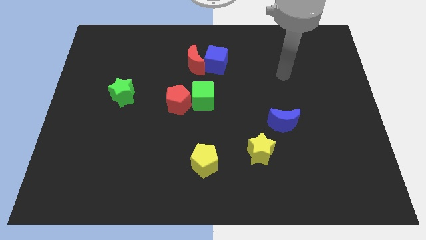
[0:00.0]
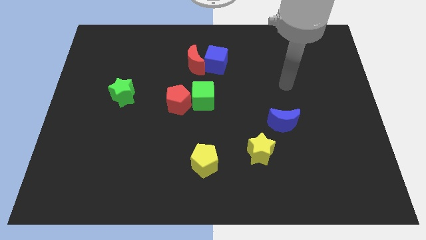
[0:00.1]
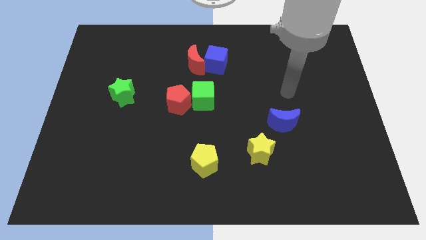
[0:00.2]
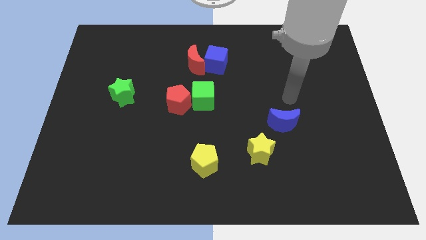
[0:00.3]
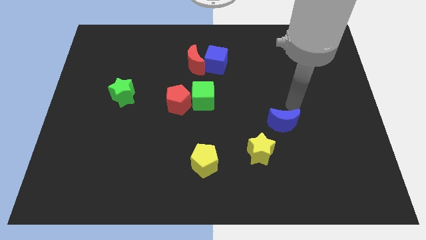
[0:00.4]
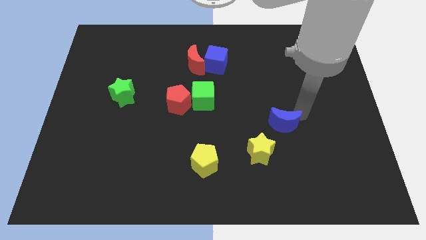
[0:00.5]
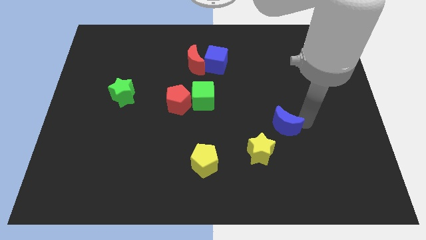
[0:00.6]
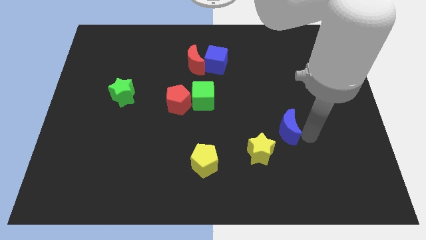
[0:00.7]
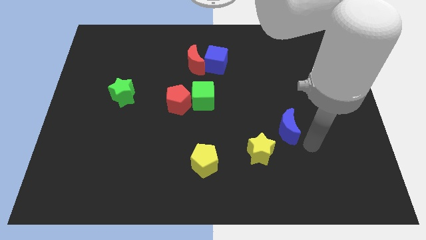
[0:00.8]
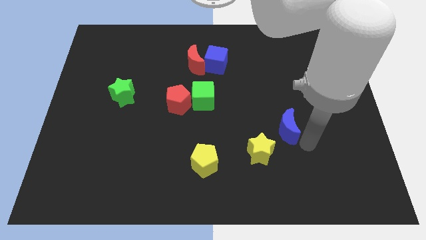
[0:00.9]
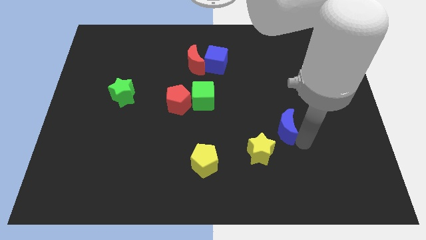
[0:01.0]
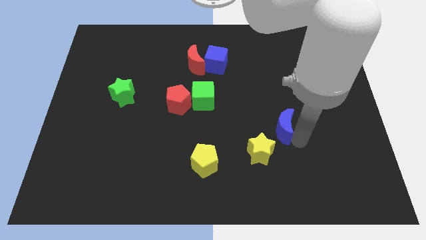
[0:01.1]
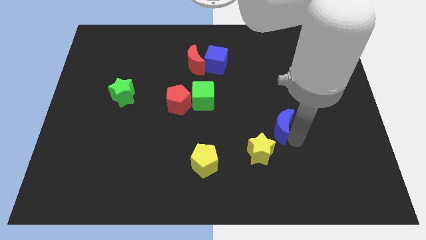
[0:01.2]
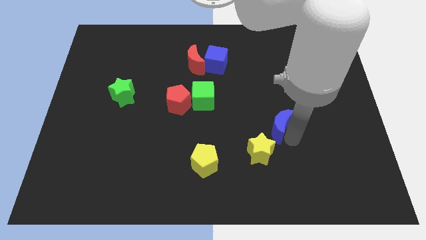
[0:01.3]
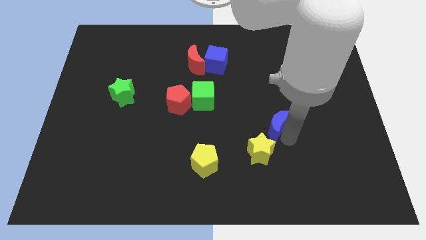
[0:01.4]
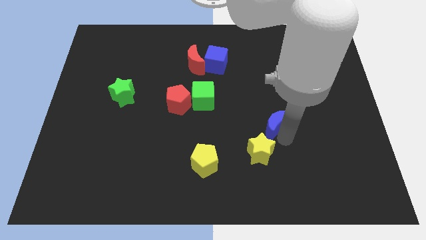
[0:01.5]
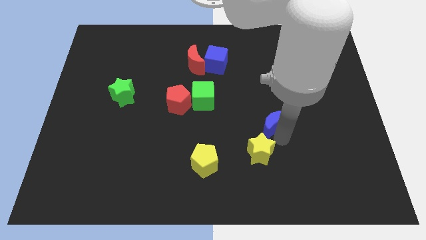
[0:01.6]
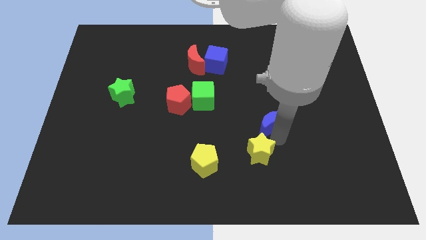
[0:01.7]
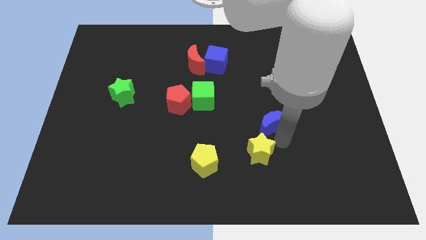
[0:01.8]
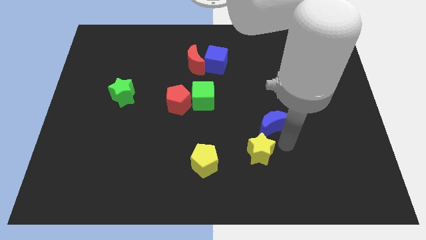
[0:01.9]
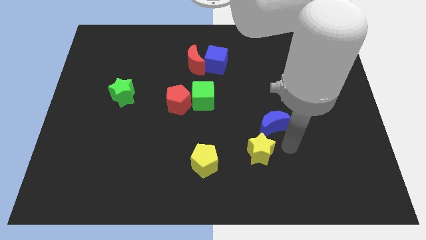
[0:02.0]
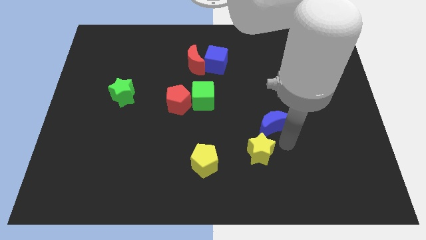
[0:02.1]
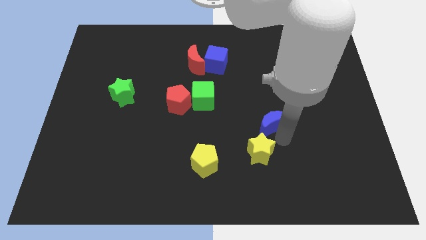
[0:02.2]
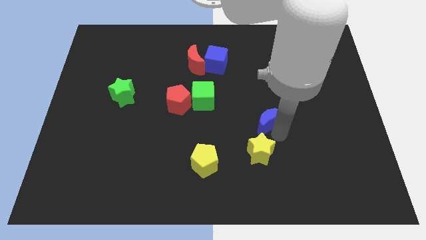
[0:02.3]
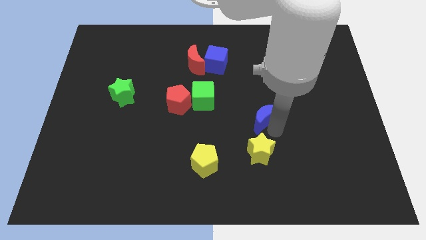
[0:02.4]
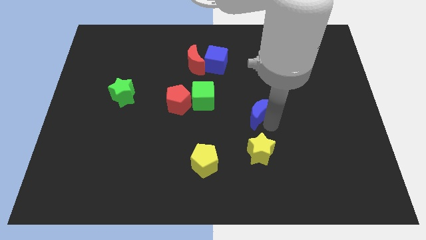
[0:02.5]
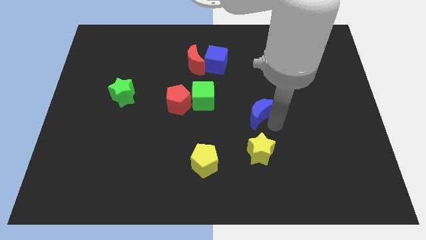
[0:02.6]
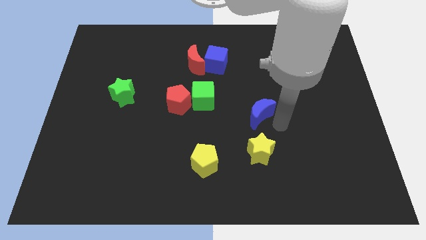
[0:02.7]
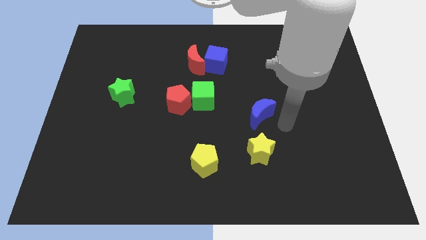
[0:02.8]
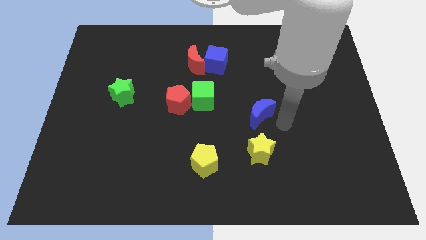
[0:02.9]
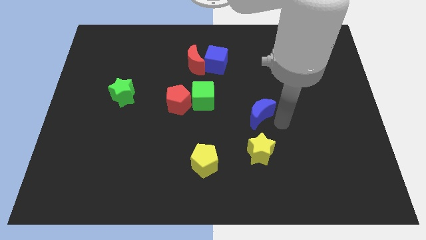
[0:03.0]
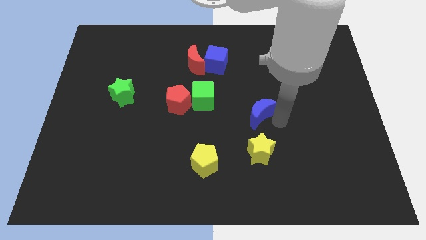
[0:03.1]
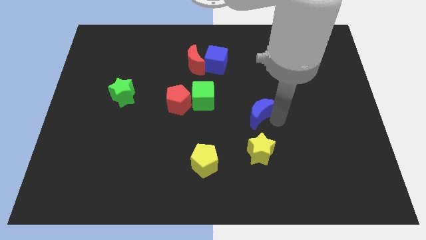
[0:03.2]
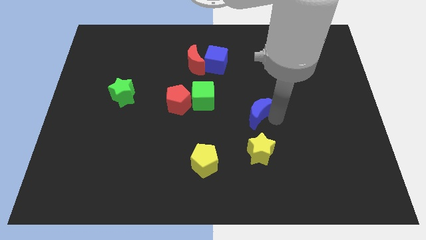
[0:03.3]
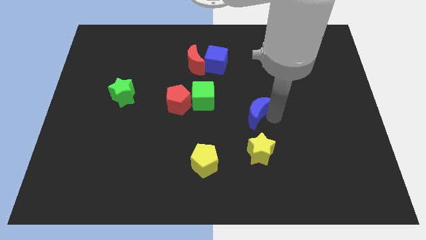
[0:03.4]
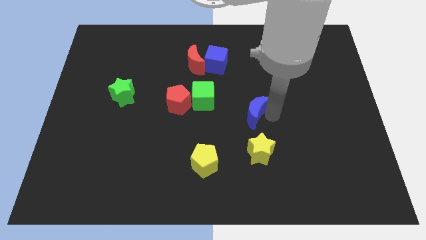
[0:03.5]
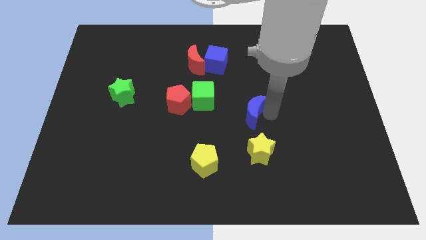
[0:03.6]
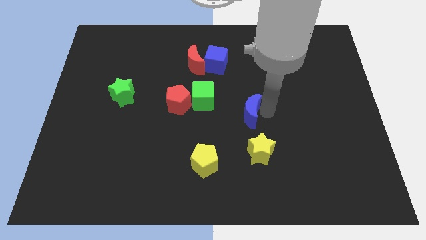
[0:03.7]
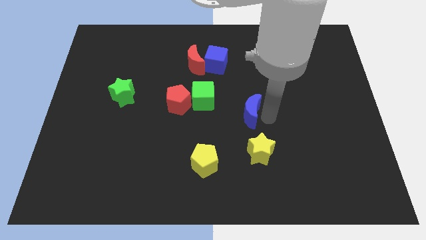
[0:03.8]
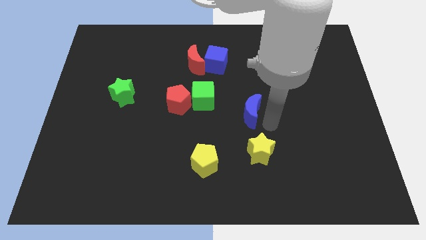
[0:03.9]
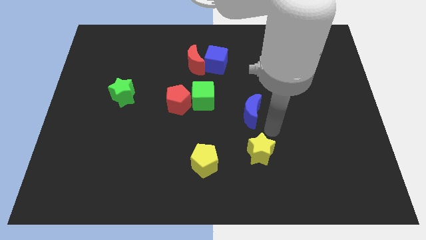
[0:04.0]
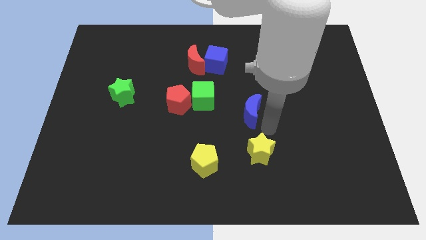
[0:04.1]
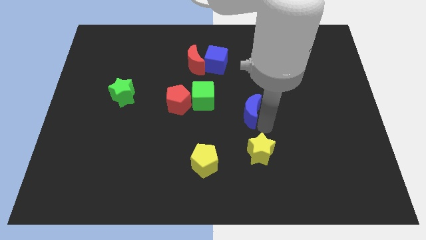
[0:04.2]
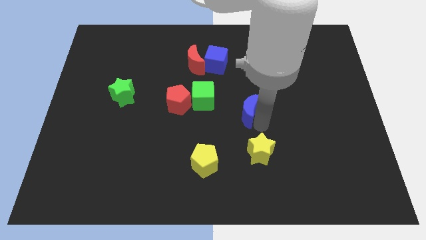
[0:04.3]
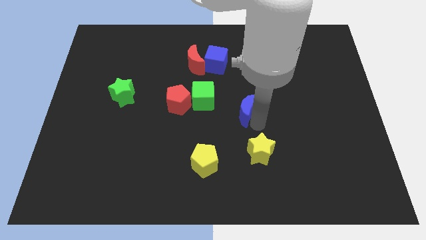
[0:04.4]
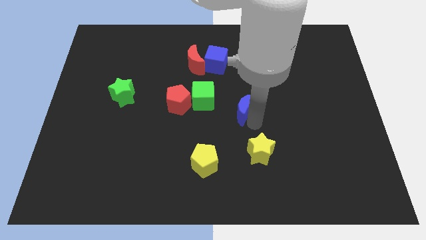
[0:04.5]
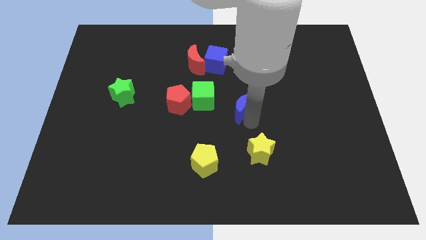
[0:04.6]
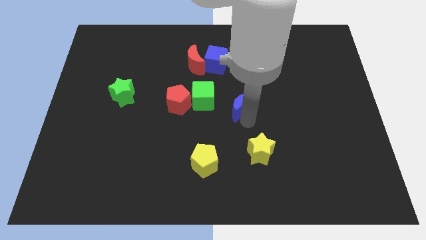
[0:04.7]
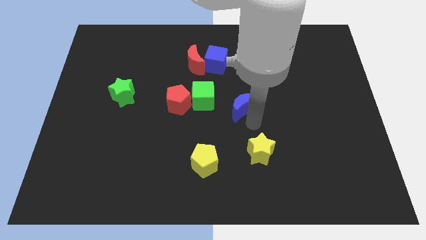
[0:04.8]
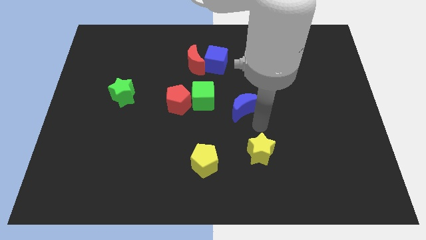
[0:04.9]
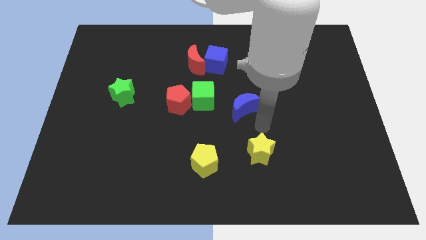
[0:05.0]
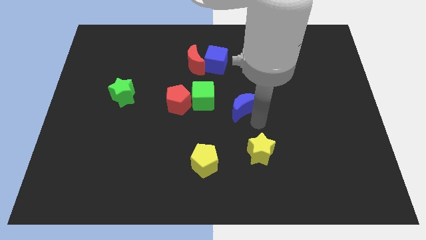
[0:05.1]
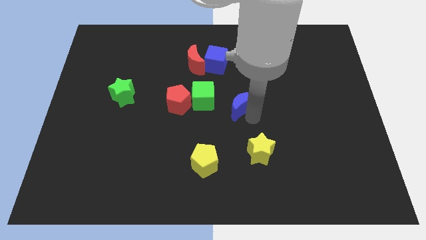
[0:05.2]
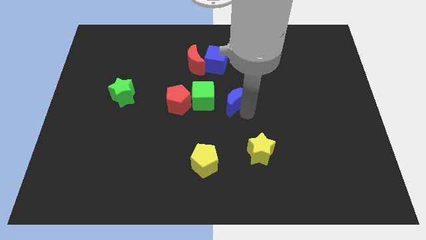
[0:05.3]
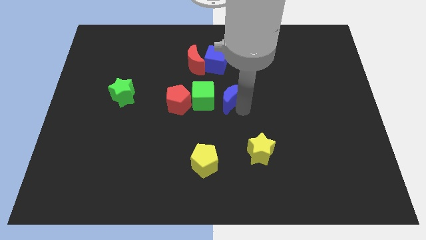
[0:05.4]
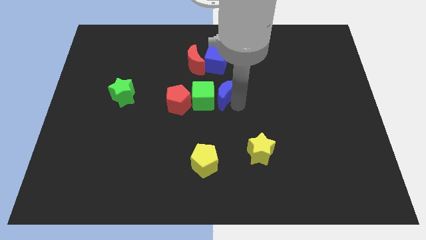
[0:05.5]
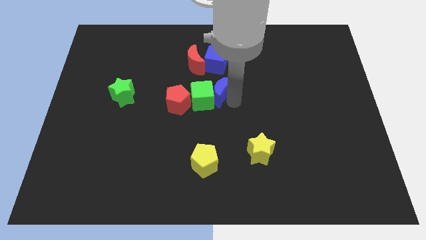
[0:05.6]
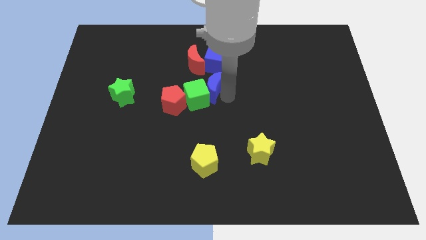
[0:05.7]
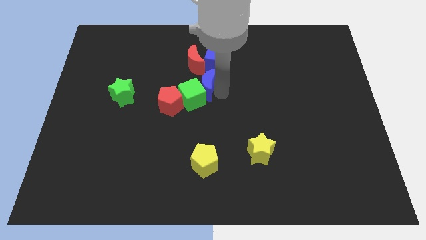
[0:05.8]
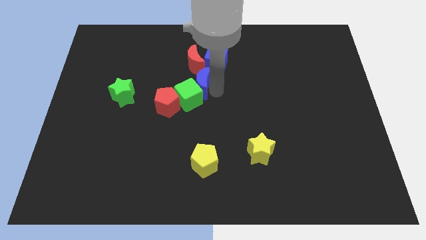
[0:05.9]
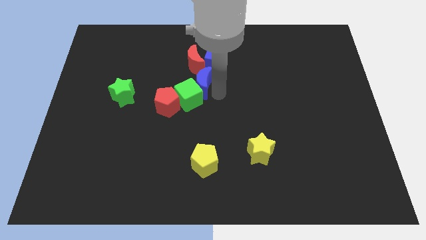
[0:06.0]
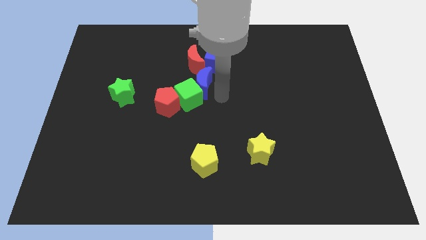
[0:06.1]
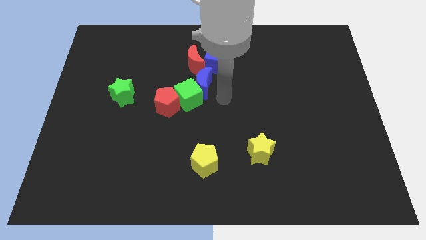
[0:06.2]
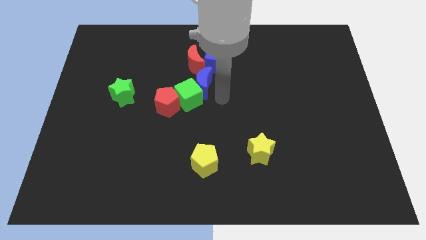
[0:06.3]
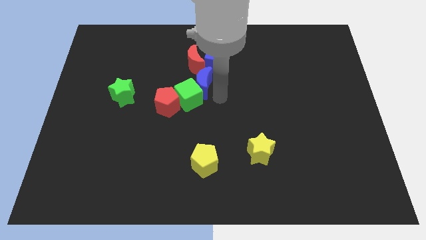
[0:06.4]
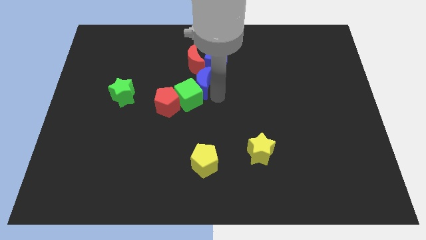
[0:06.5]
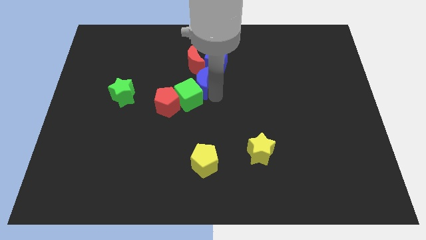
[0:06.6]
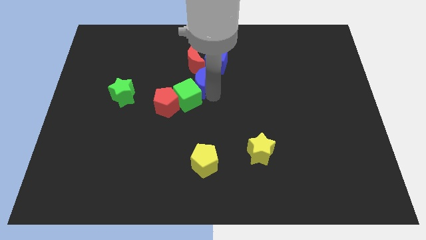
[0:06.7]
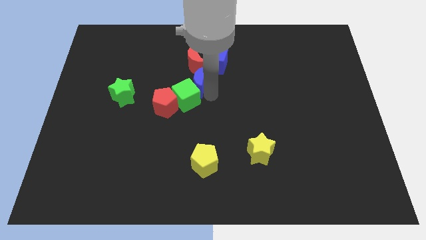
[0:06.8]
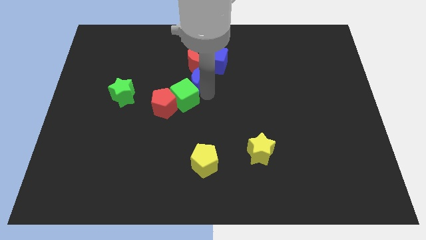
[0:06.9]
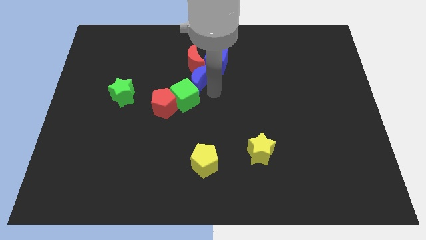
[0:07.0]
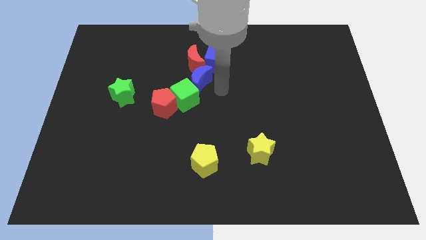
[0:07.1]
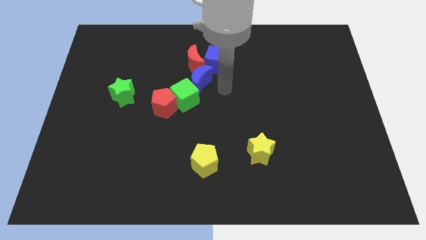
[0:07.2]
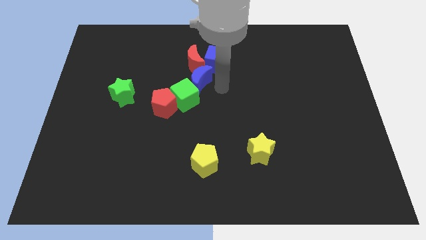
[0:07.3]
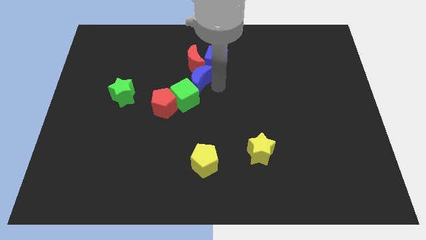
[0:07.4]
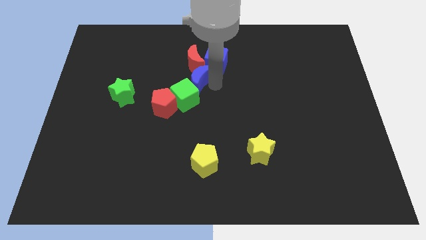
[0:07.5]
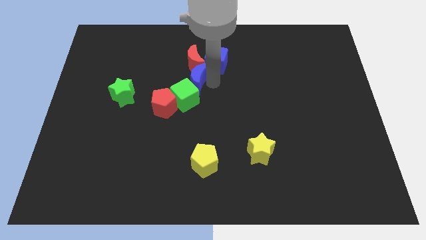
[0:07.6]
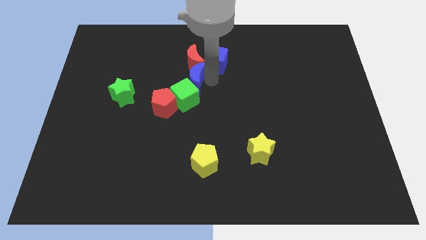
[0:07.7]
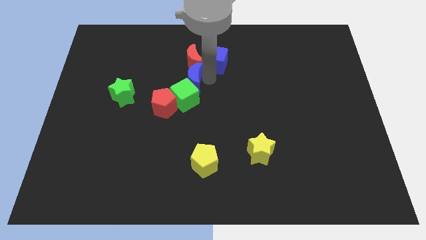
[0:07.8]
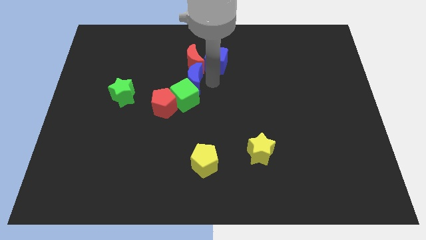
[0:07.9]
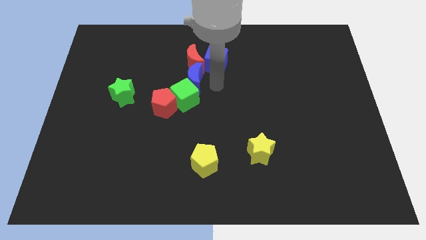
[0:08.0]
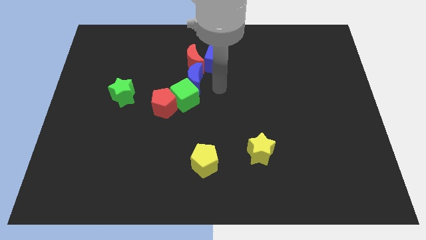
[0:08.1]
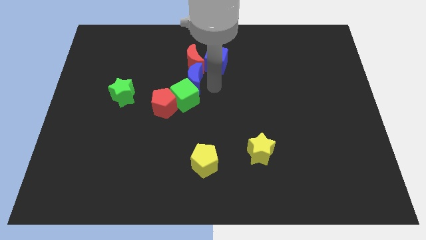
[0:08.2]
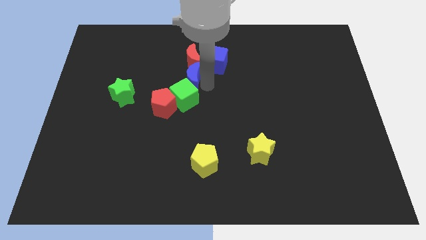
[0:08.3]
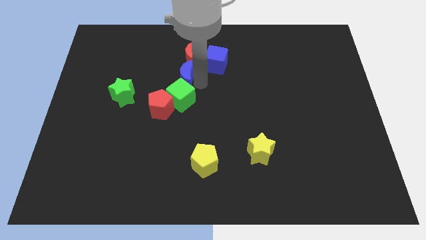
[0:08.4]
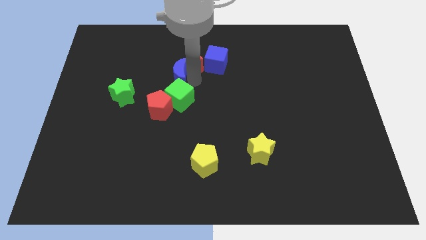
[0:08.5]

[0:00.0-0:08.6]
move the blue moon above the red pentagon
